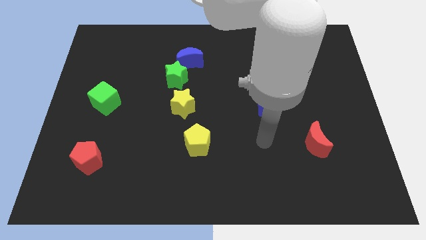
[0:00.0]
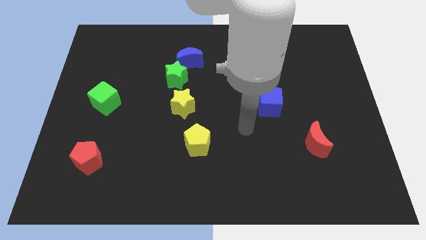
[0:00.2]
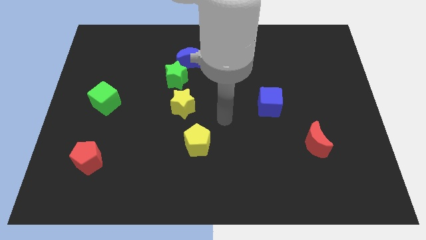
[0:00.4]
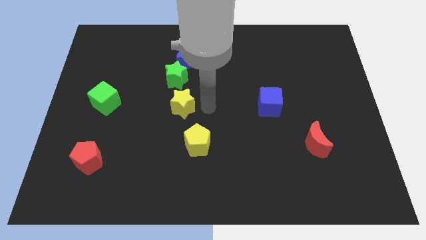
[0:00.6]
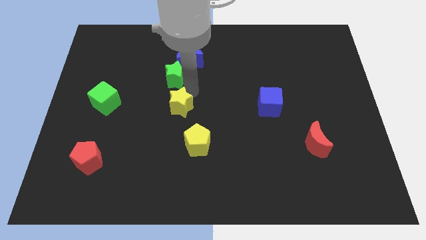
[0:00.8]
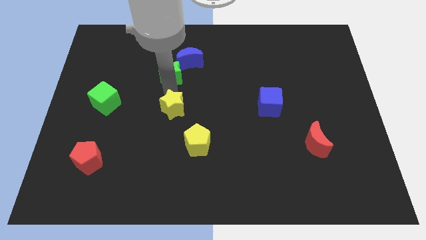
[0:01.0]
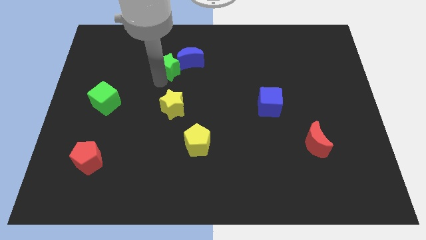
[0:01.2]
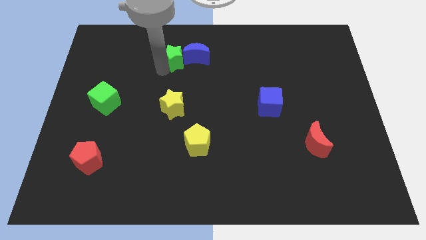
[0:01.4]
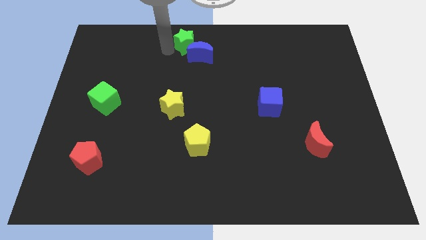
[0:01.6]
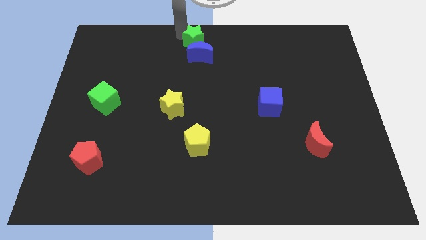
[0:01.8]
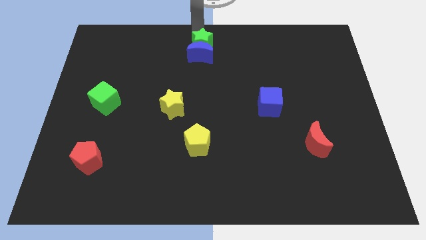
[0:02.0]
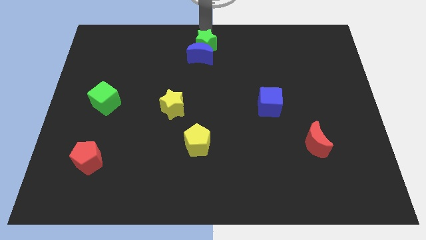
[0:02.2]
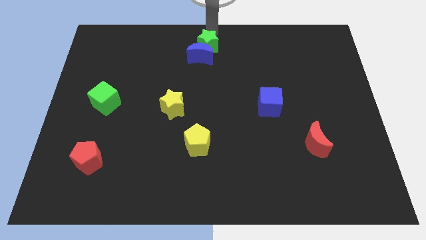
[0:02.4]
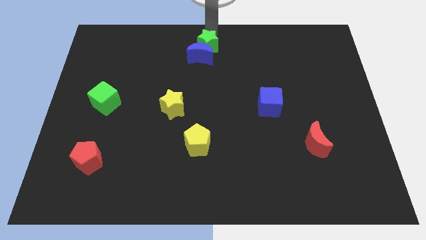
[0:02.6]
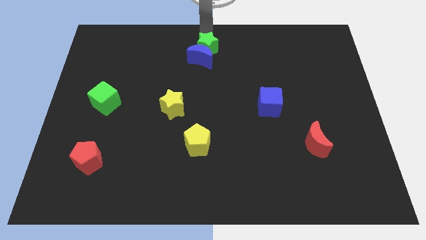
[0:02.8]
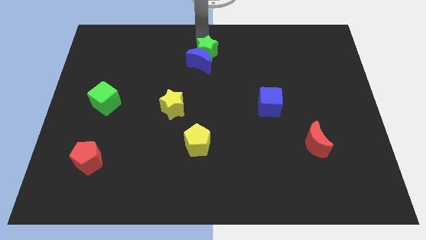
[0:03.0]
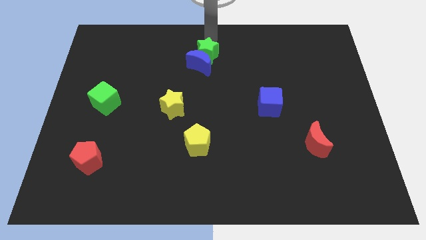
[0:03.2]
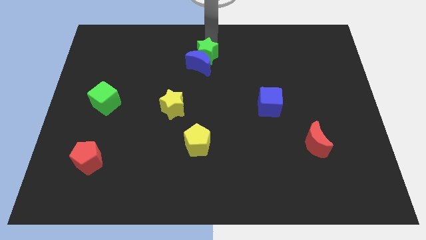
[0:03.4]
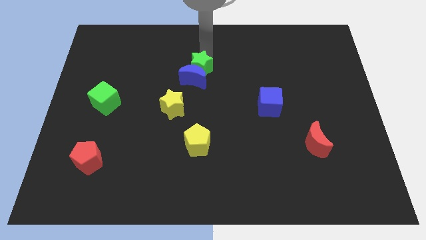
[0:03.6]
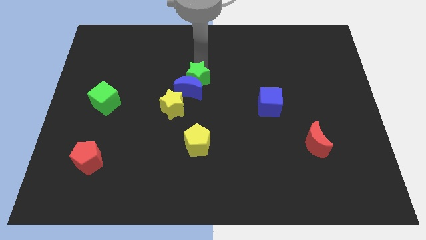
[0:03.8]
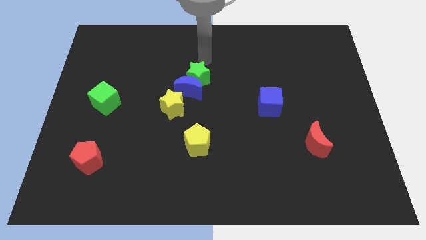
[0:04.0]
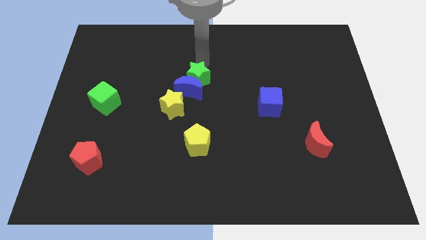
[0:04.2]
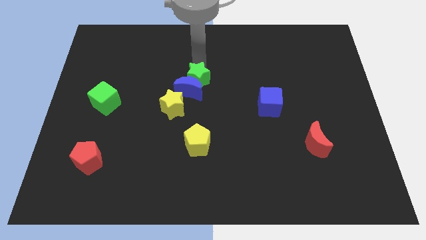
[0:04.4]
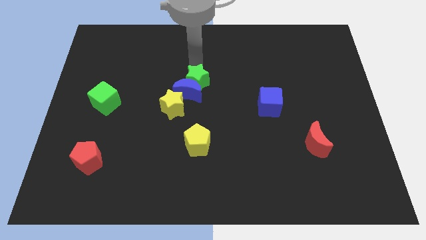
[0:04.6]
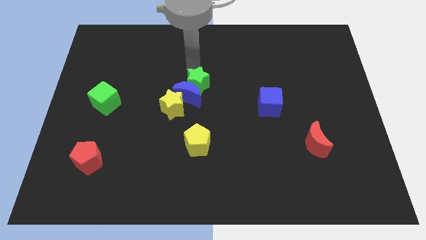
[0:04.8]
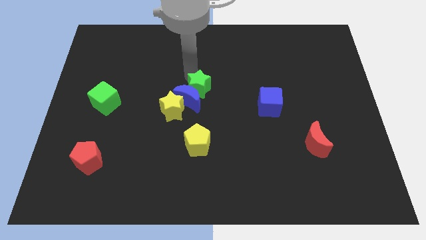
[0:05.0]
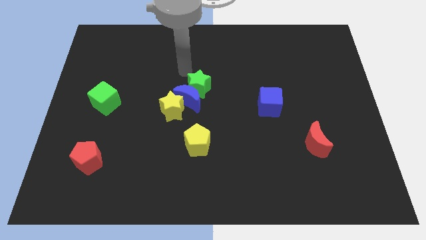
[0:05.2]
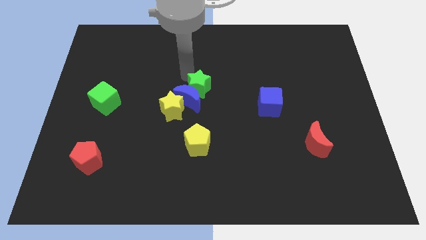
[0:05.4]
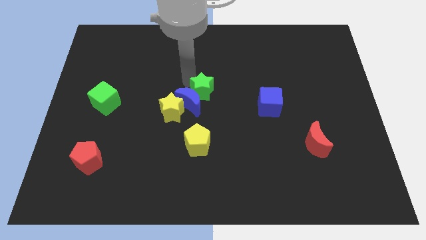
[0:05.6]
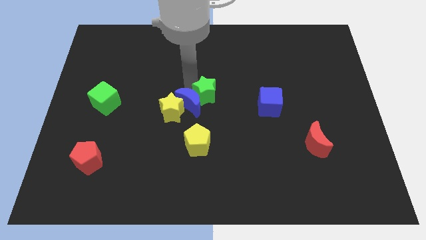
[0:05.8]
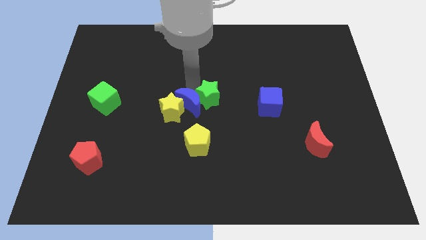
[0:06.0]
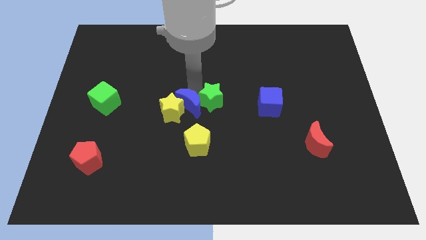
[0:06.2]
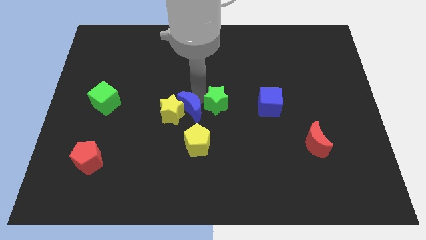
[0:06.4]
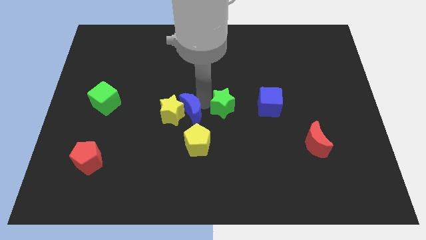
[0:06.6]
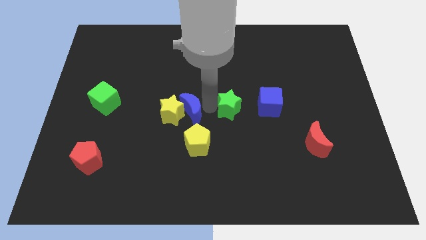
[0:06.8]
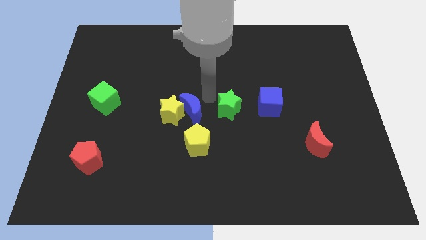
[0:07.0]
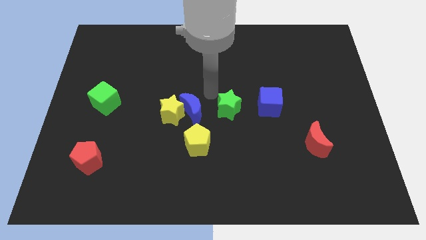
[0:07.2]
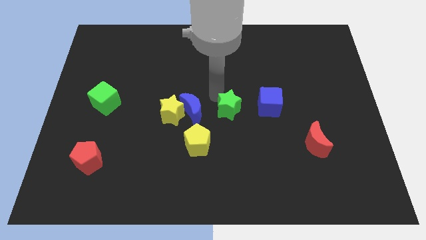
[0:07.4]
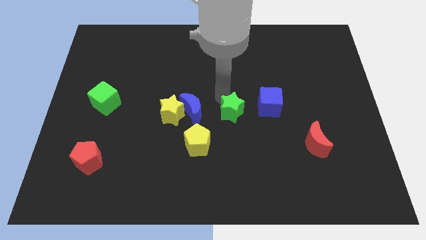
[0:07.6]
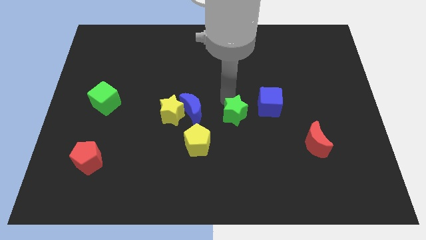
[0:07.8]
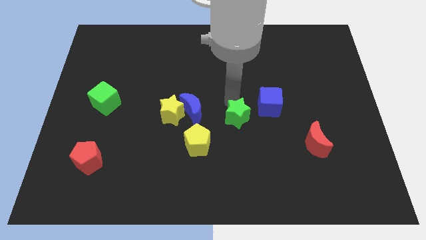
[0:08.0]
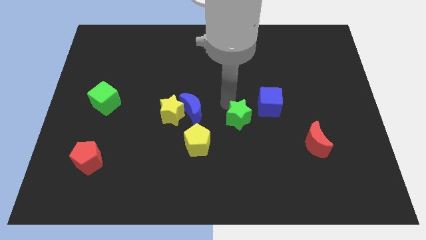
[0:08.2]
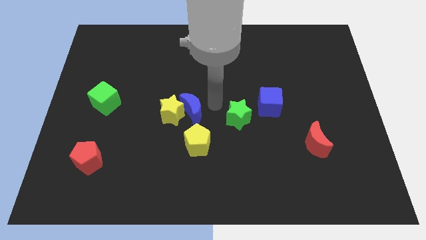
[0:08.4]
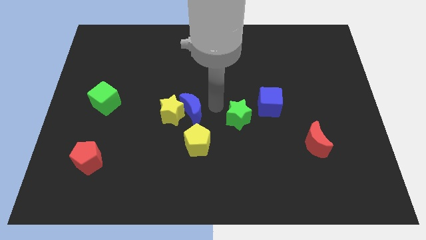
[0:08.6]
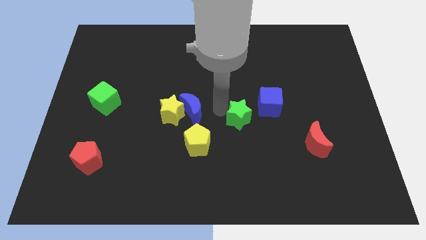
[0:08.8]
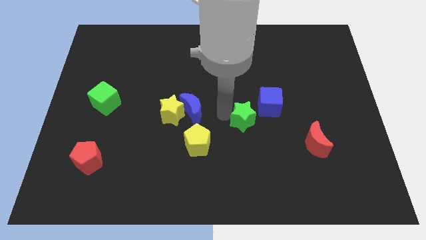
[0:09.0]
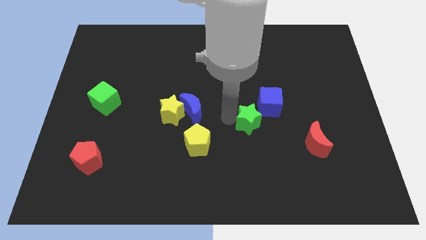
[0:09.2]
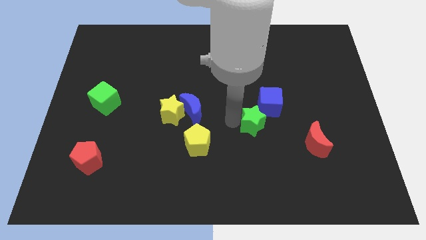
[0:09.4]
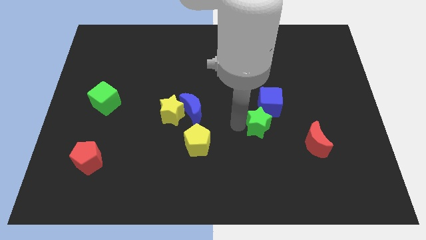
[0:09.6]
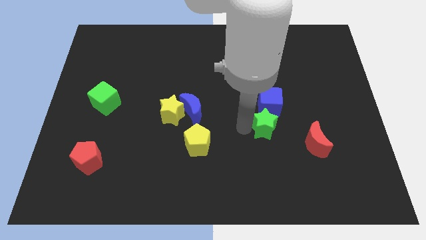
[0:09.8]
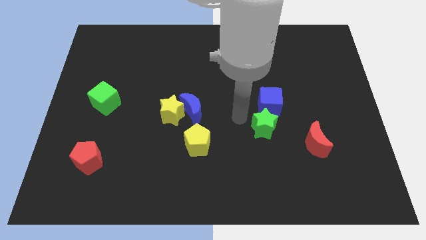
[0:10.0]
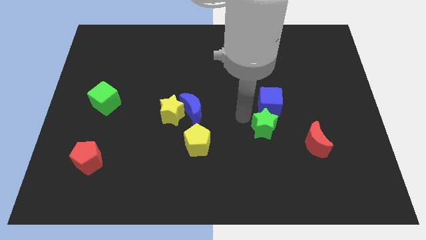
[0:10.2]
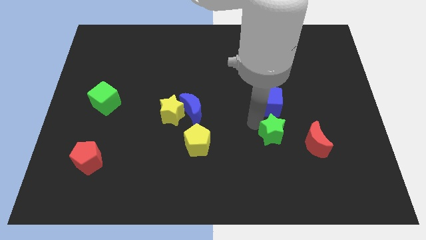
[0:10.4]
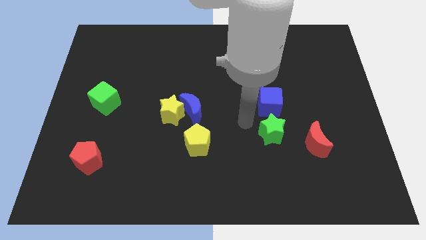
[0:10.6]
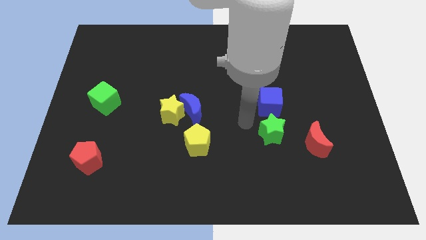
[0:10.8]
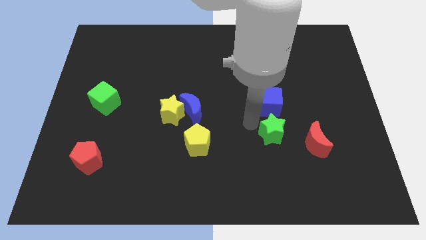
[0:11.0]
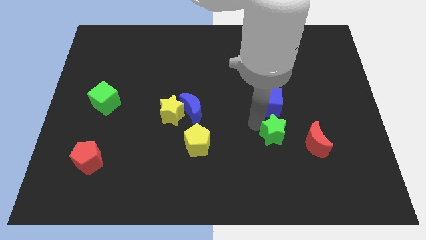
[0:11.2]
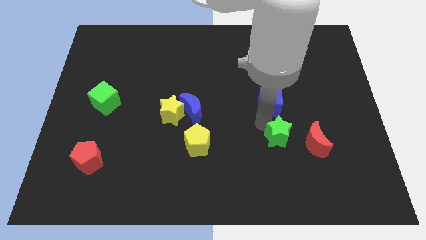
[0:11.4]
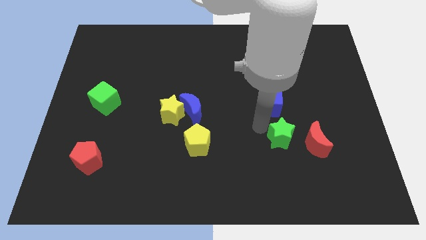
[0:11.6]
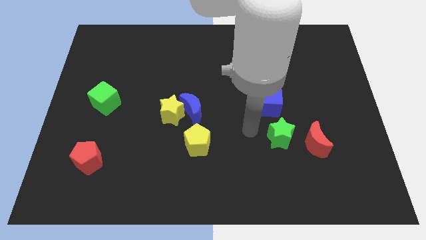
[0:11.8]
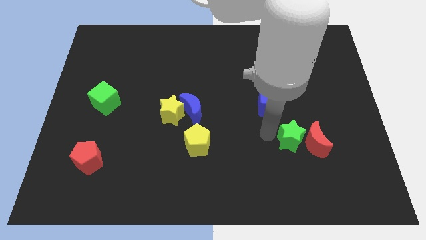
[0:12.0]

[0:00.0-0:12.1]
put the green star to the red moon

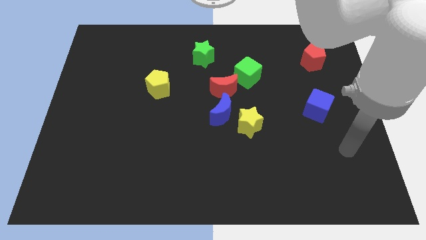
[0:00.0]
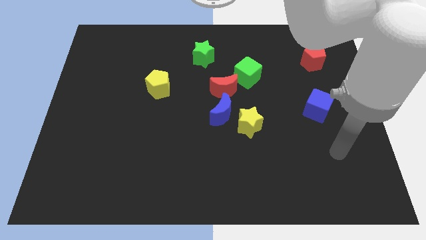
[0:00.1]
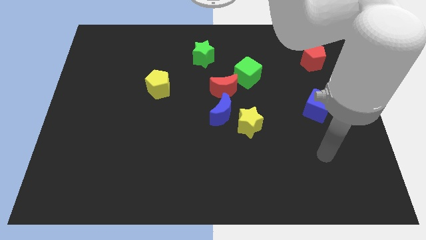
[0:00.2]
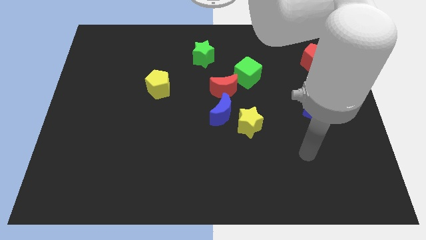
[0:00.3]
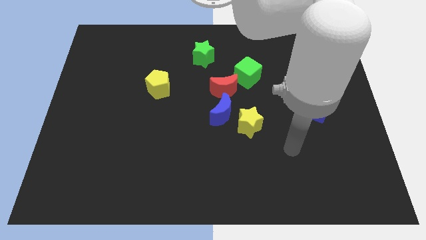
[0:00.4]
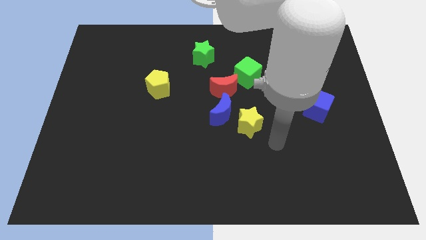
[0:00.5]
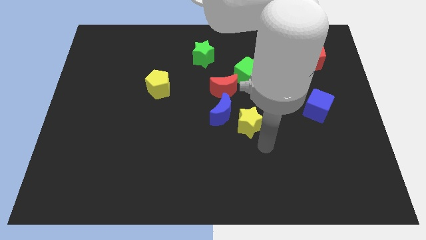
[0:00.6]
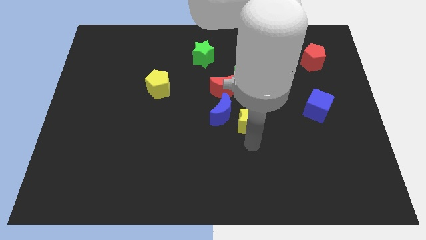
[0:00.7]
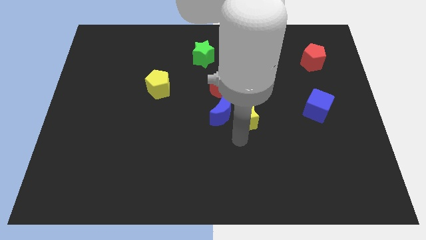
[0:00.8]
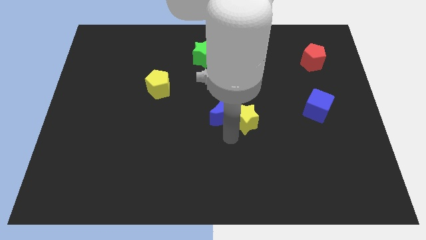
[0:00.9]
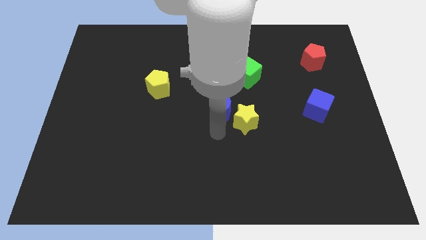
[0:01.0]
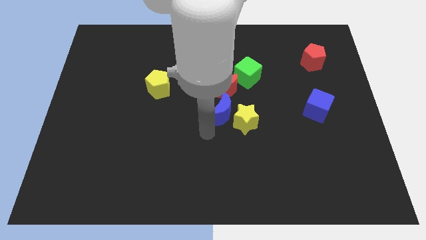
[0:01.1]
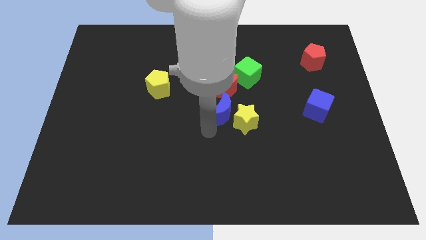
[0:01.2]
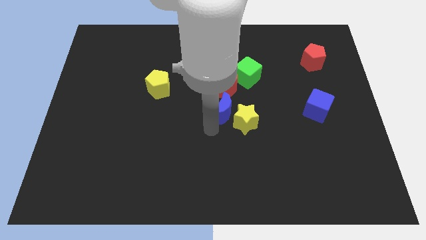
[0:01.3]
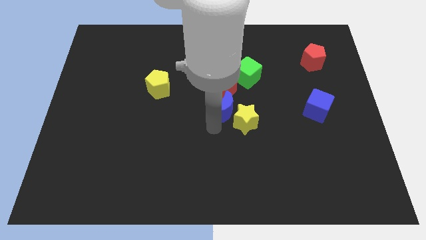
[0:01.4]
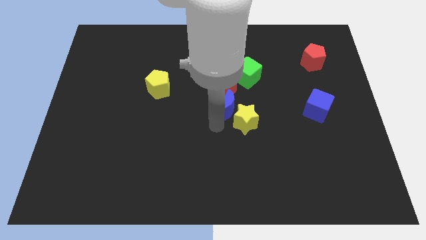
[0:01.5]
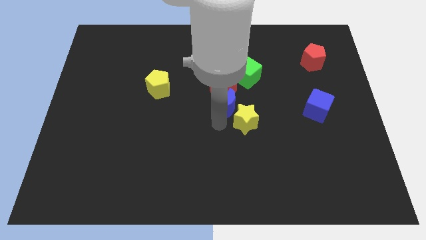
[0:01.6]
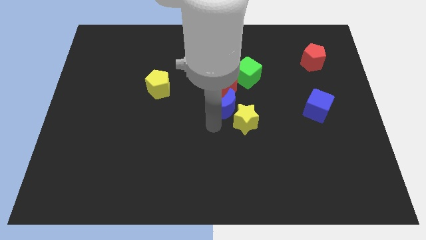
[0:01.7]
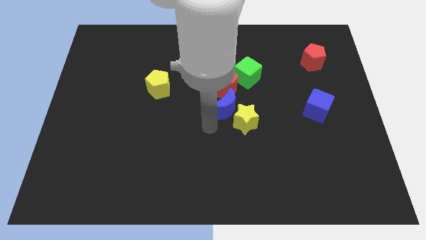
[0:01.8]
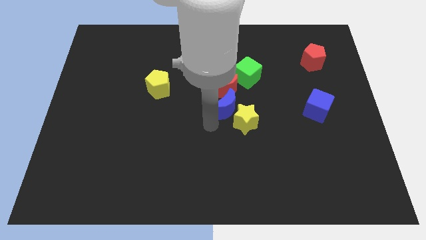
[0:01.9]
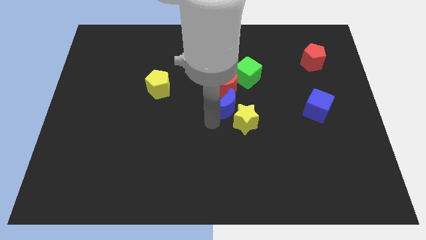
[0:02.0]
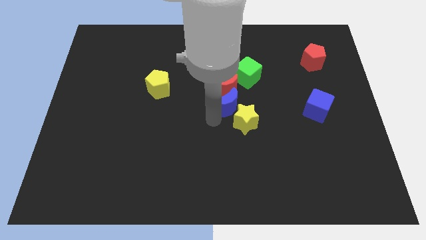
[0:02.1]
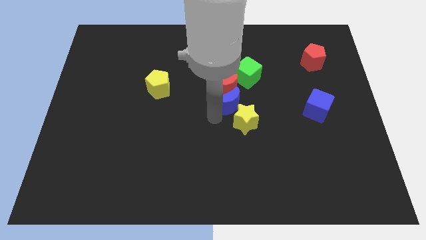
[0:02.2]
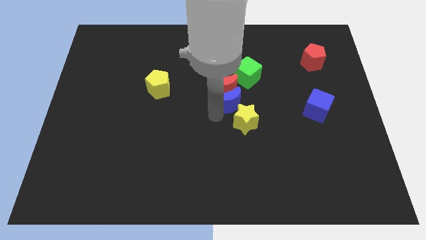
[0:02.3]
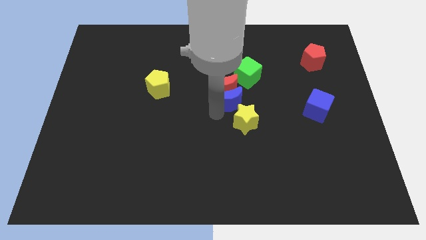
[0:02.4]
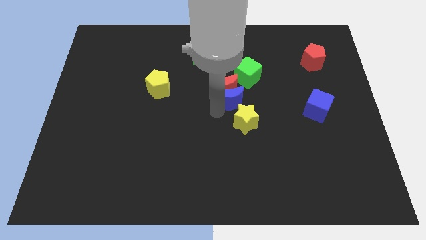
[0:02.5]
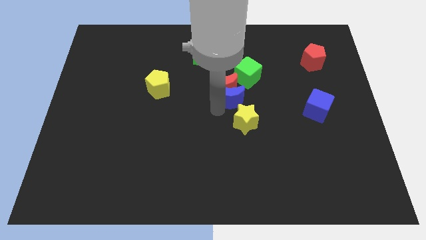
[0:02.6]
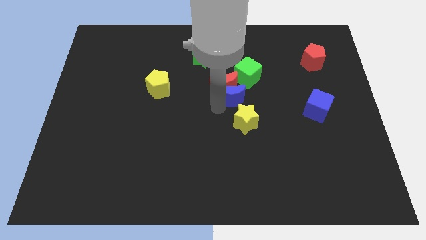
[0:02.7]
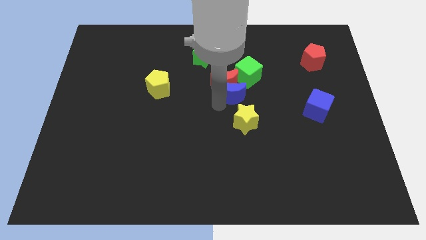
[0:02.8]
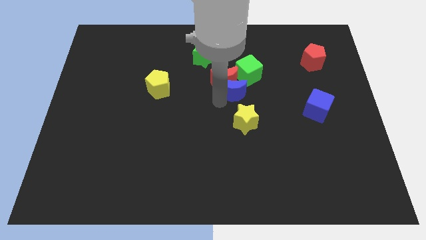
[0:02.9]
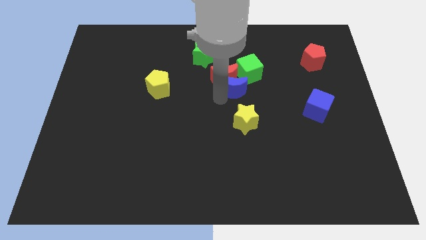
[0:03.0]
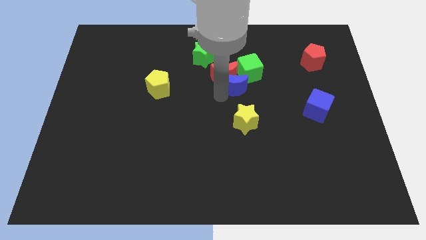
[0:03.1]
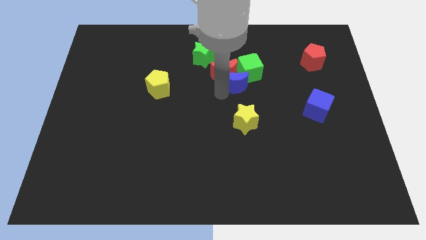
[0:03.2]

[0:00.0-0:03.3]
slide the blue moon towards the green cube
